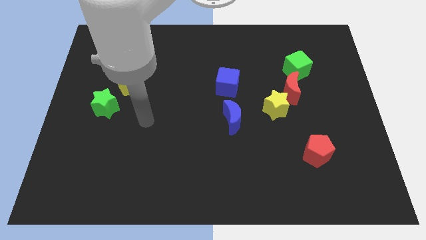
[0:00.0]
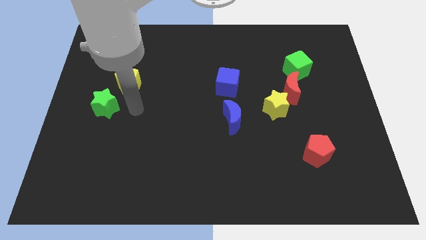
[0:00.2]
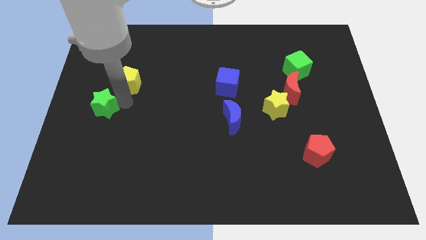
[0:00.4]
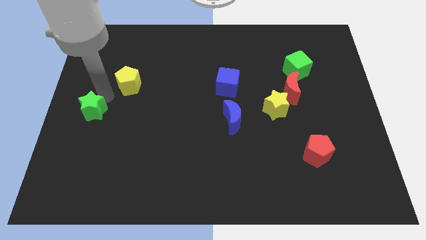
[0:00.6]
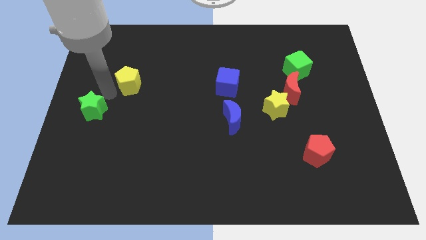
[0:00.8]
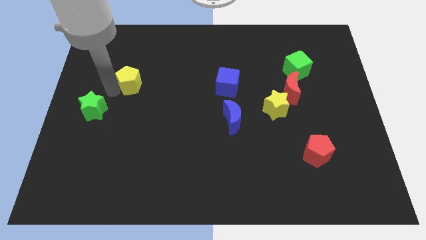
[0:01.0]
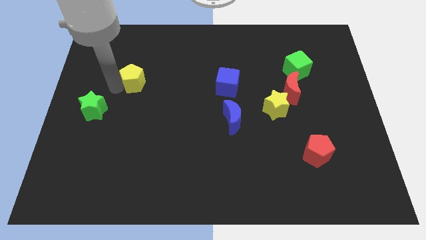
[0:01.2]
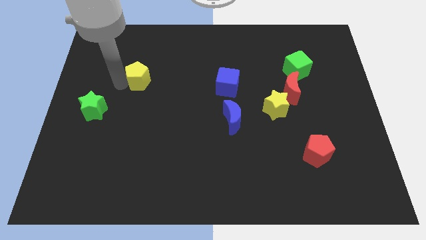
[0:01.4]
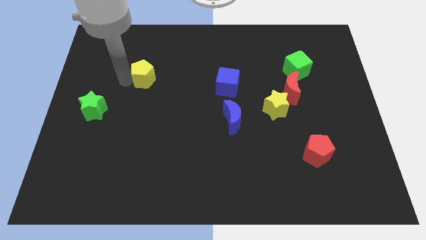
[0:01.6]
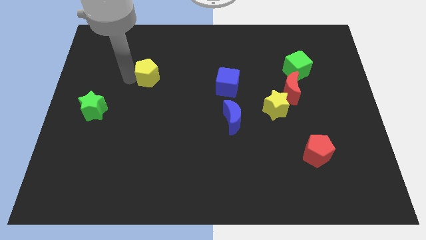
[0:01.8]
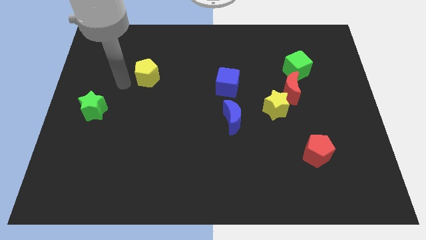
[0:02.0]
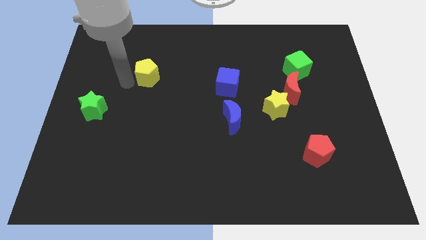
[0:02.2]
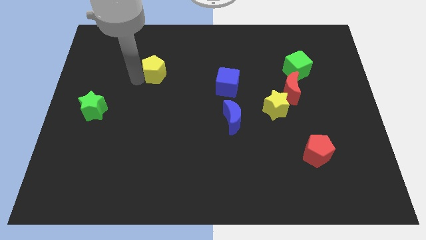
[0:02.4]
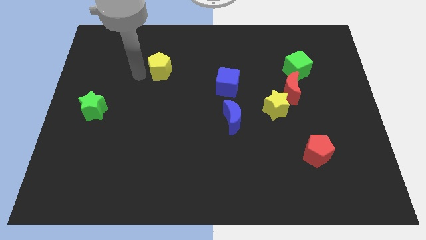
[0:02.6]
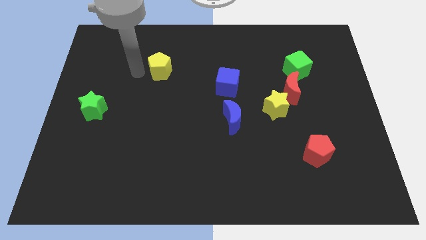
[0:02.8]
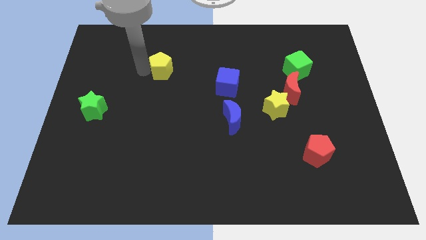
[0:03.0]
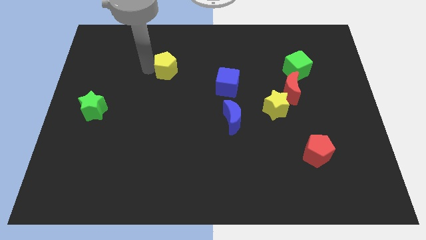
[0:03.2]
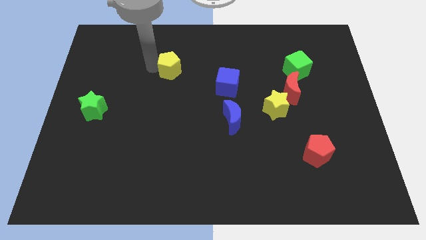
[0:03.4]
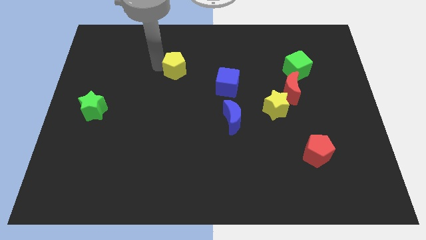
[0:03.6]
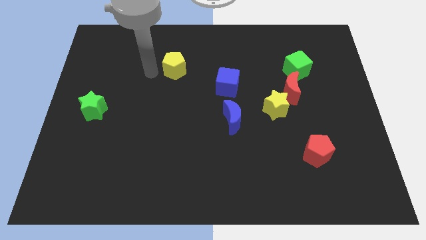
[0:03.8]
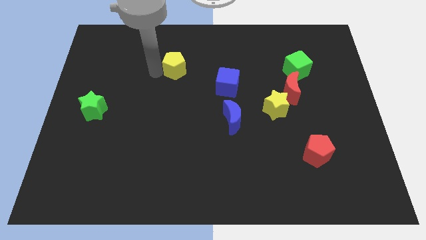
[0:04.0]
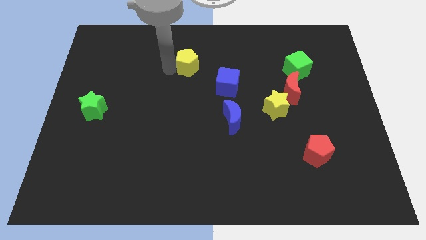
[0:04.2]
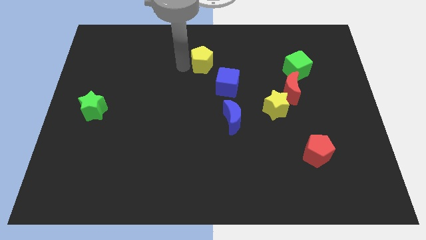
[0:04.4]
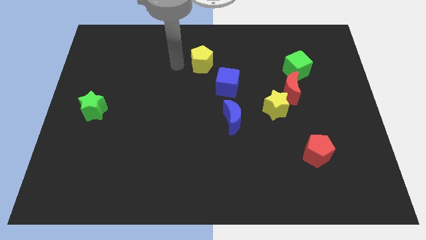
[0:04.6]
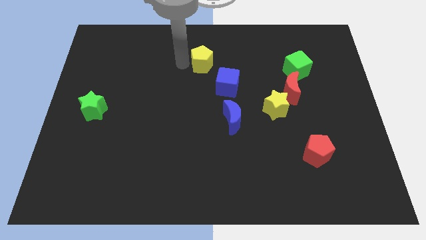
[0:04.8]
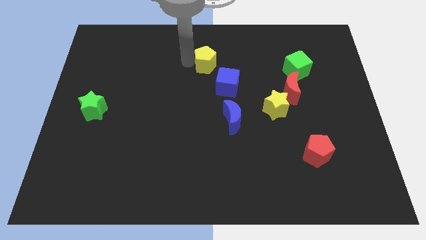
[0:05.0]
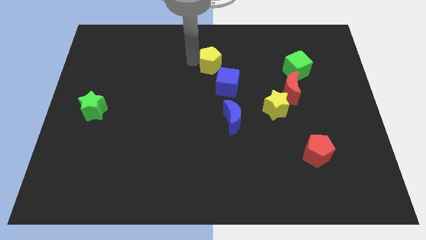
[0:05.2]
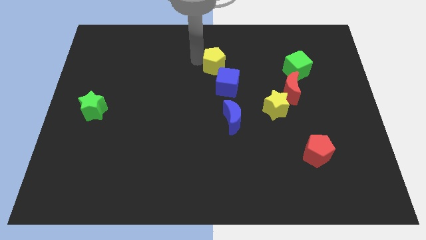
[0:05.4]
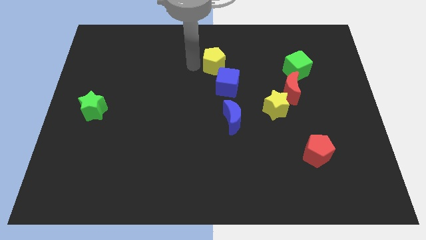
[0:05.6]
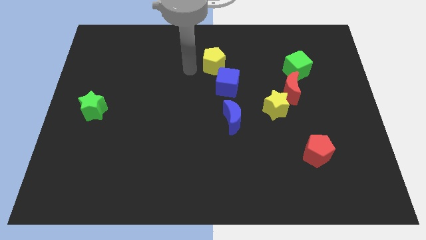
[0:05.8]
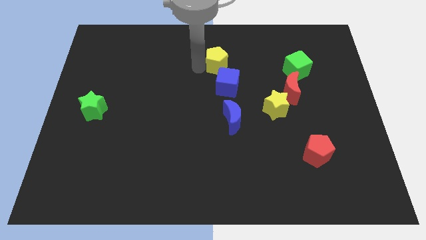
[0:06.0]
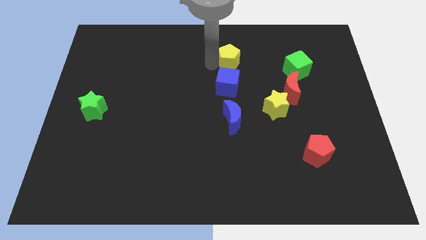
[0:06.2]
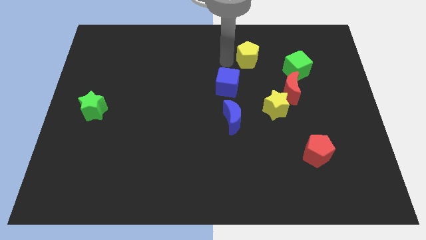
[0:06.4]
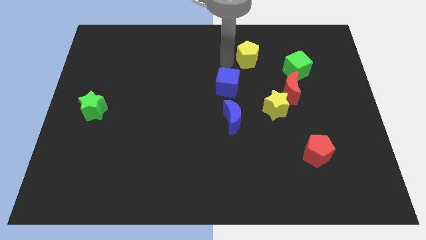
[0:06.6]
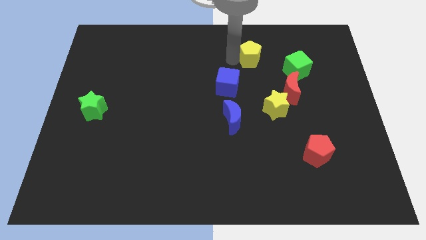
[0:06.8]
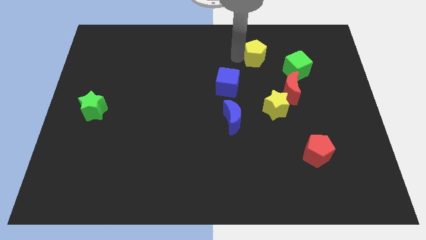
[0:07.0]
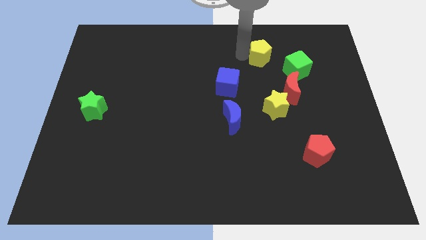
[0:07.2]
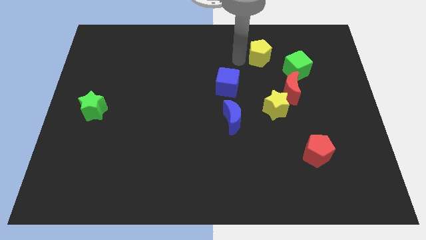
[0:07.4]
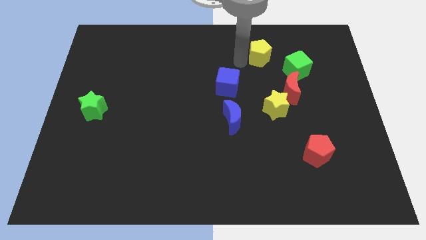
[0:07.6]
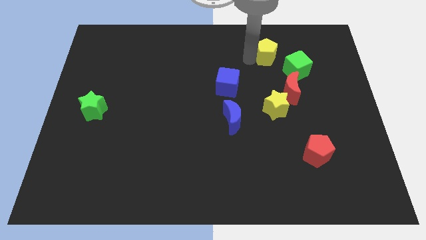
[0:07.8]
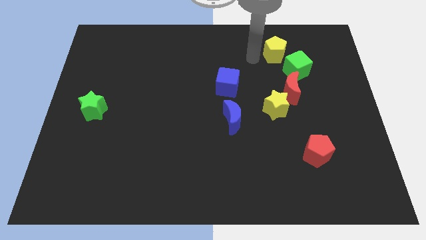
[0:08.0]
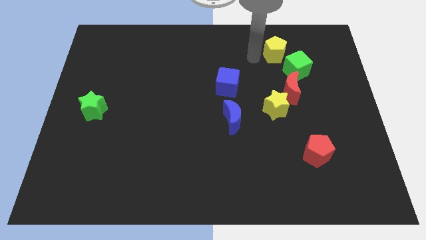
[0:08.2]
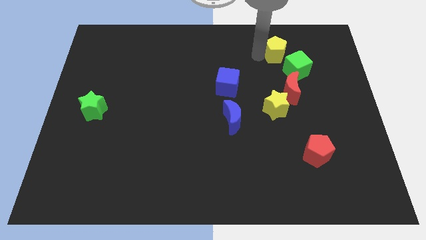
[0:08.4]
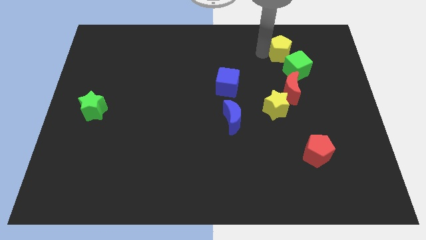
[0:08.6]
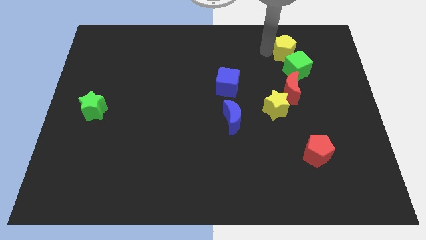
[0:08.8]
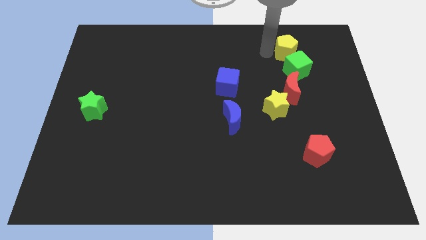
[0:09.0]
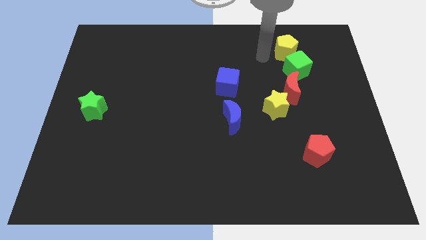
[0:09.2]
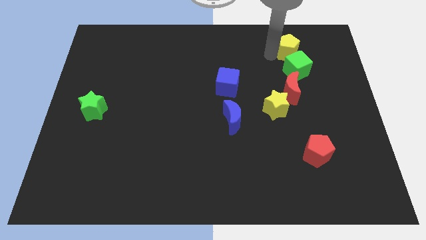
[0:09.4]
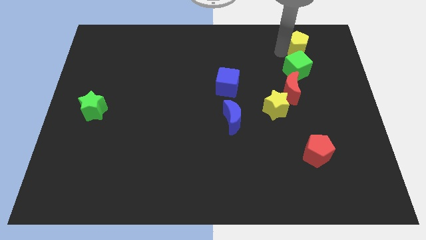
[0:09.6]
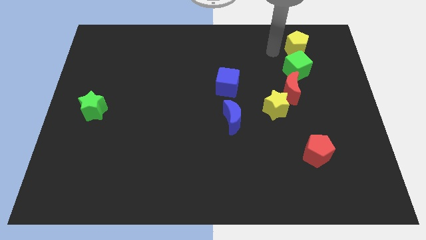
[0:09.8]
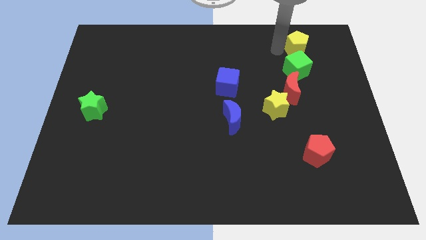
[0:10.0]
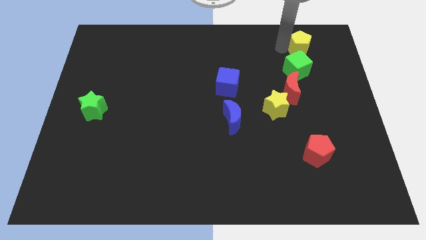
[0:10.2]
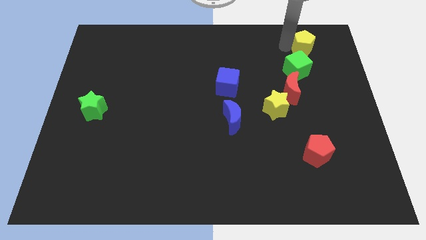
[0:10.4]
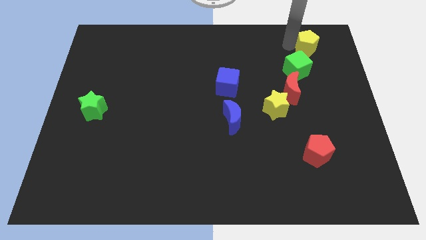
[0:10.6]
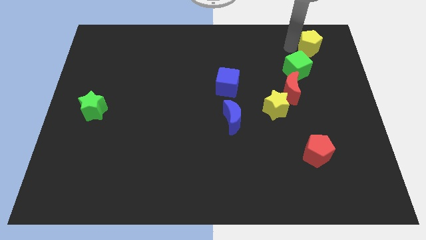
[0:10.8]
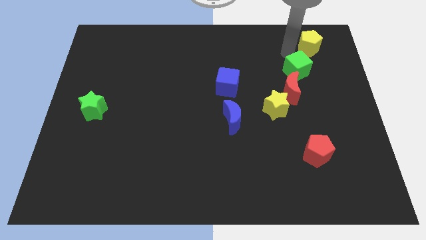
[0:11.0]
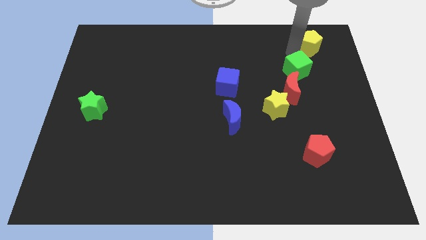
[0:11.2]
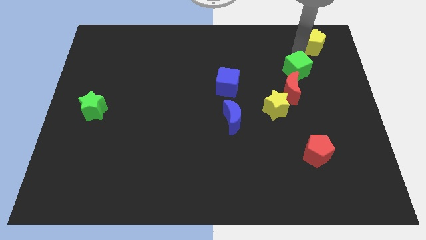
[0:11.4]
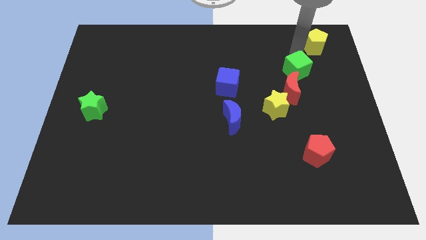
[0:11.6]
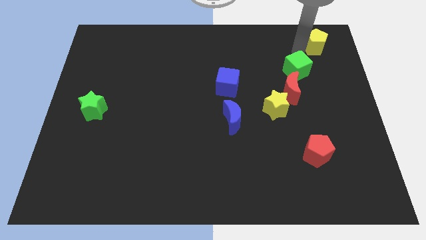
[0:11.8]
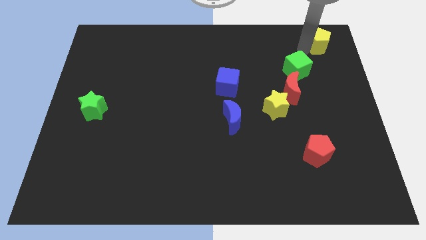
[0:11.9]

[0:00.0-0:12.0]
put the yellow pentagon to the top right corner
